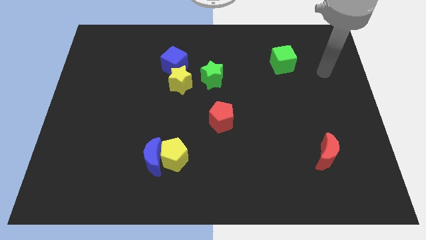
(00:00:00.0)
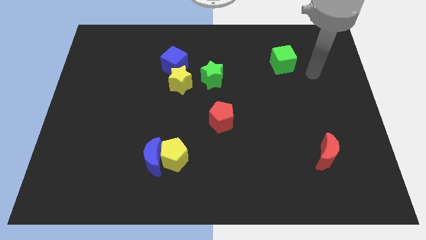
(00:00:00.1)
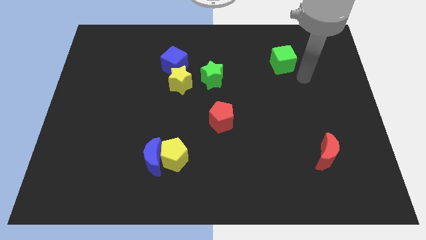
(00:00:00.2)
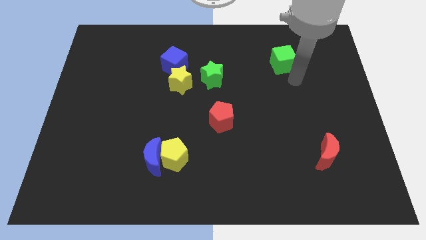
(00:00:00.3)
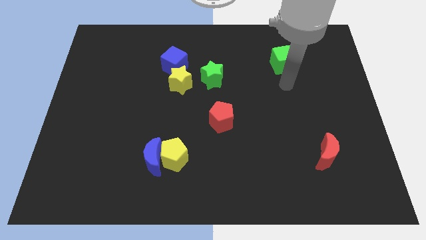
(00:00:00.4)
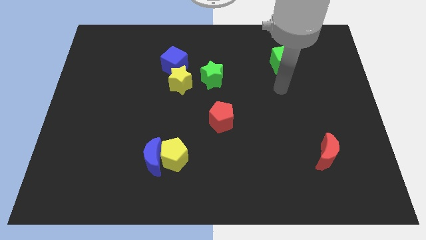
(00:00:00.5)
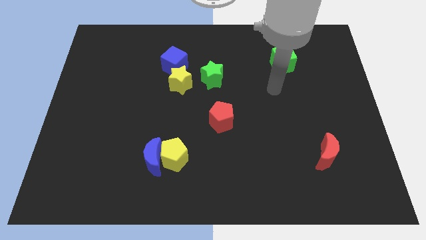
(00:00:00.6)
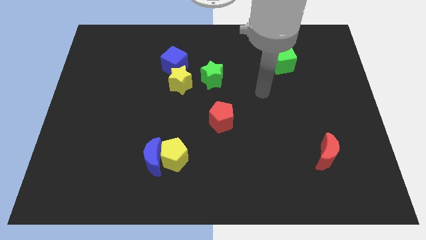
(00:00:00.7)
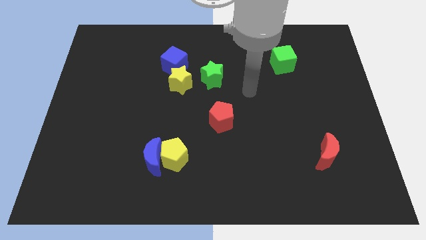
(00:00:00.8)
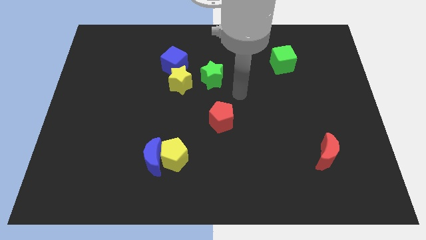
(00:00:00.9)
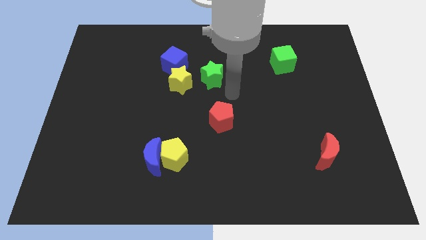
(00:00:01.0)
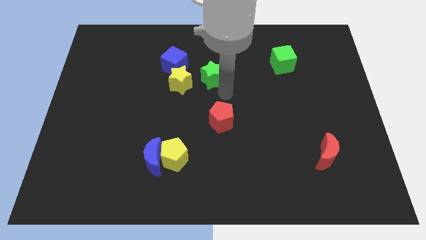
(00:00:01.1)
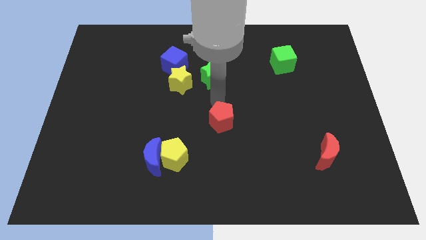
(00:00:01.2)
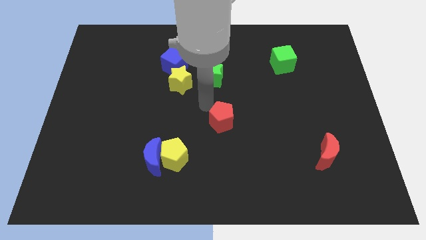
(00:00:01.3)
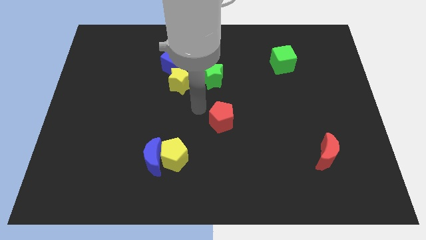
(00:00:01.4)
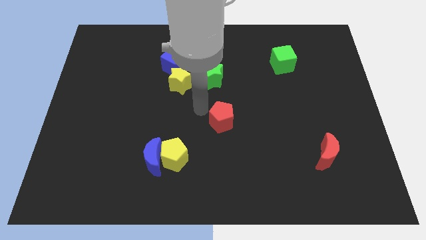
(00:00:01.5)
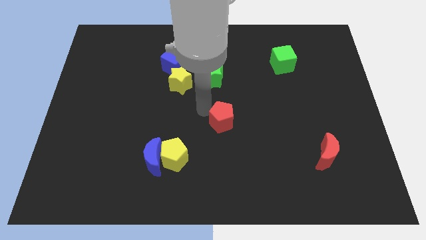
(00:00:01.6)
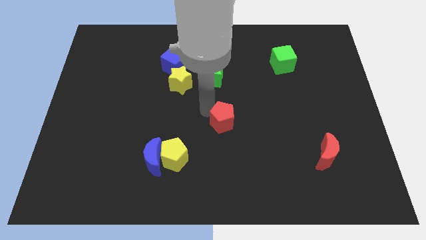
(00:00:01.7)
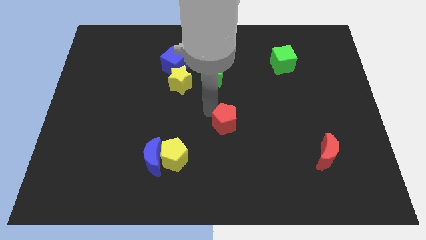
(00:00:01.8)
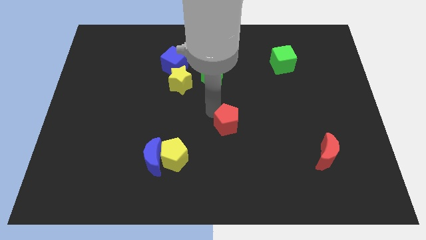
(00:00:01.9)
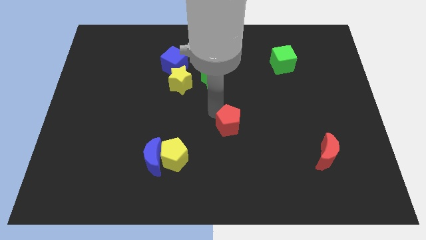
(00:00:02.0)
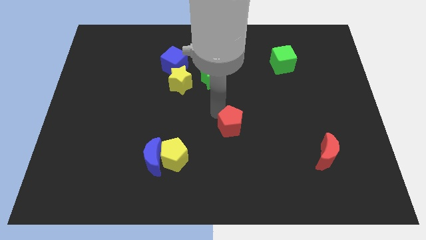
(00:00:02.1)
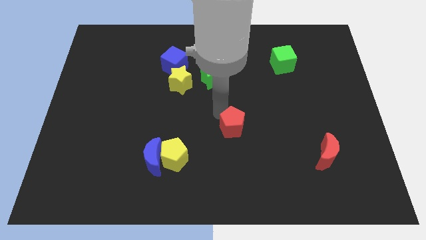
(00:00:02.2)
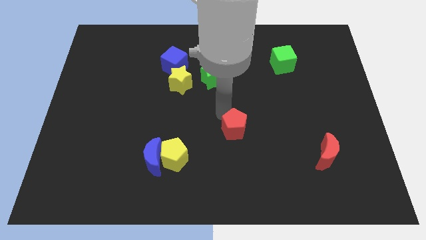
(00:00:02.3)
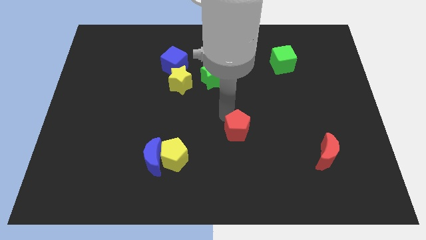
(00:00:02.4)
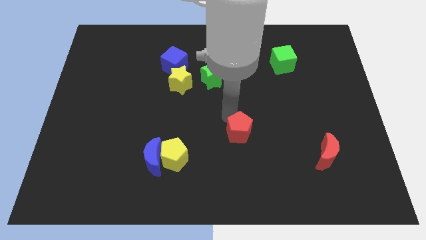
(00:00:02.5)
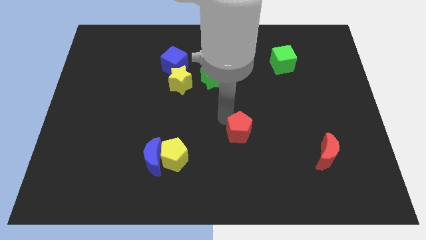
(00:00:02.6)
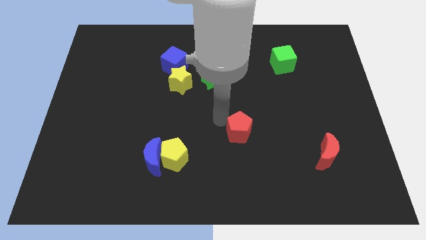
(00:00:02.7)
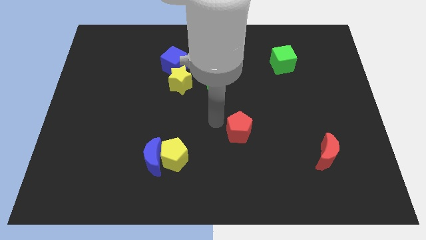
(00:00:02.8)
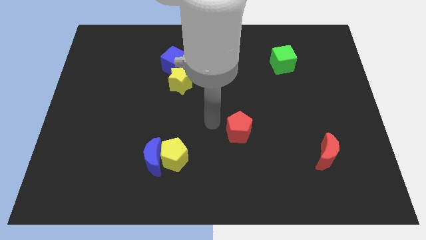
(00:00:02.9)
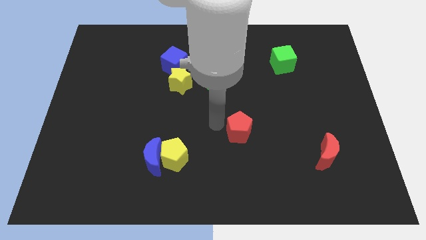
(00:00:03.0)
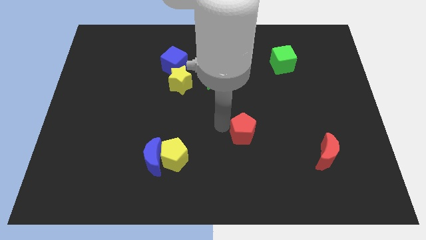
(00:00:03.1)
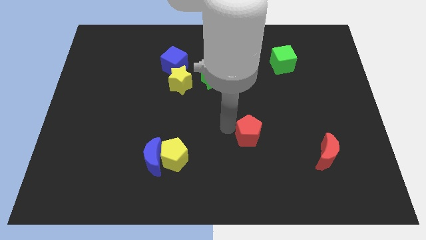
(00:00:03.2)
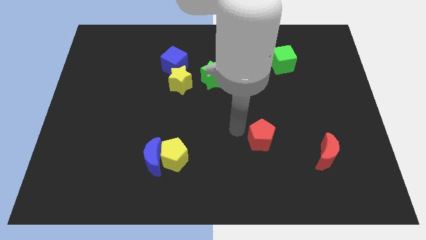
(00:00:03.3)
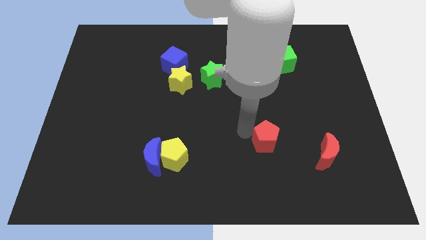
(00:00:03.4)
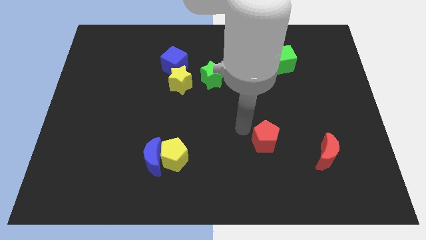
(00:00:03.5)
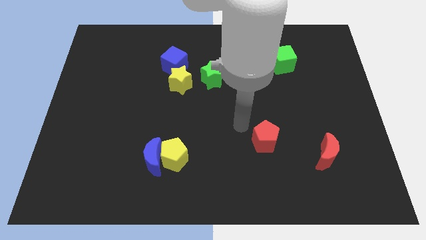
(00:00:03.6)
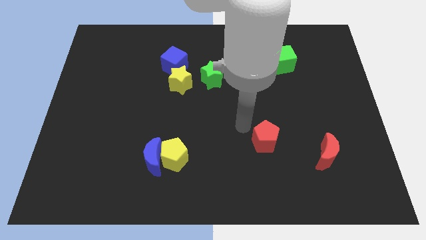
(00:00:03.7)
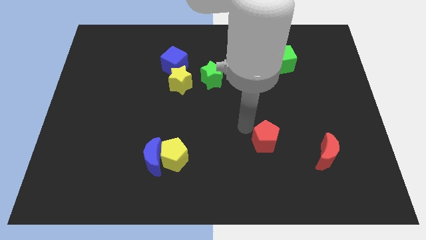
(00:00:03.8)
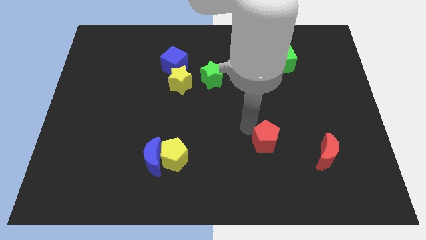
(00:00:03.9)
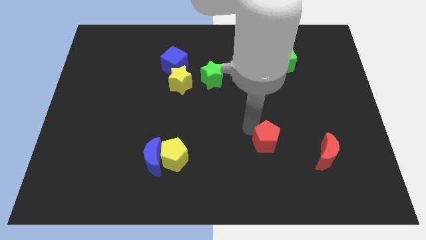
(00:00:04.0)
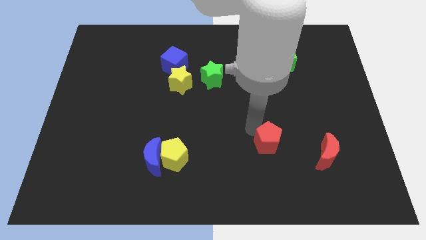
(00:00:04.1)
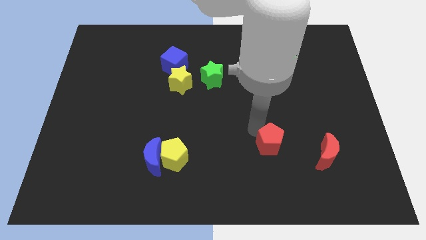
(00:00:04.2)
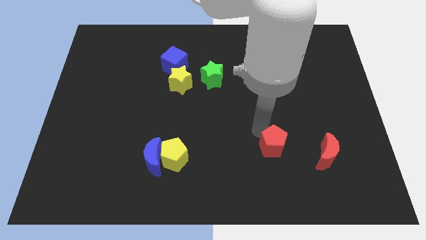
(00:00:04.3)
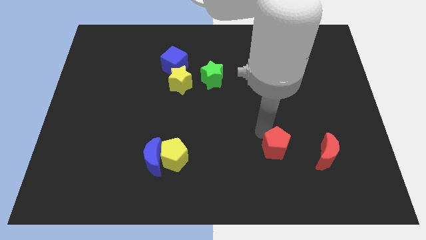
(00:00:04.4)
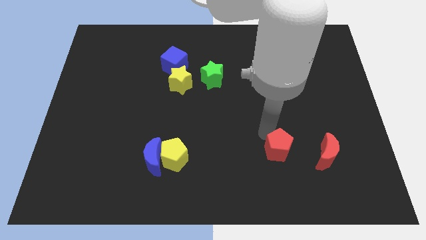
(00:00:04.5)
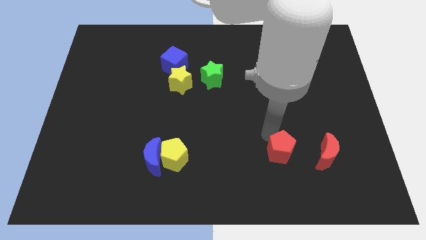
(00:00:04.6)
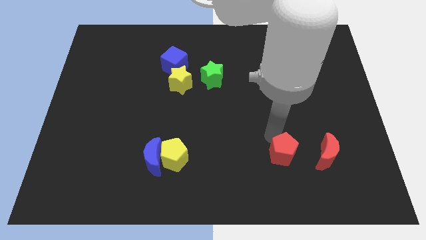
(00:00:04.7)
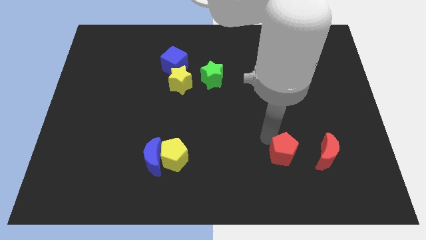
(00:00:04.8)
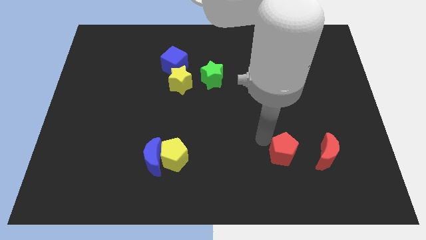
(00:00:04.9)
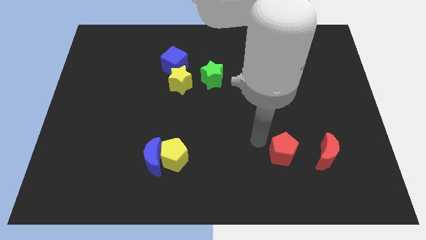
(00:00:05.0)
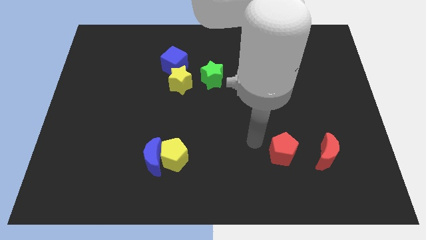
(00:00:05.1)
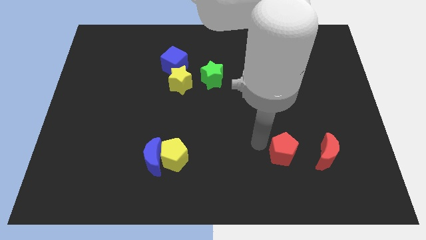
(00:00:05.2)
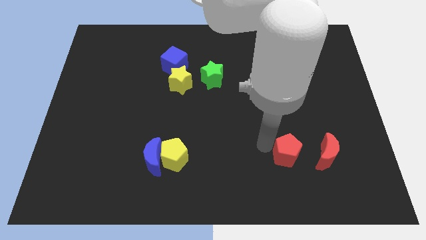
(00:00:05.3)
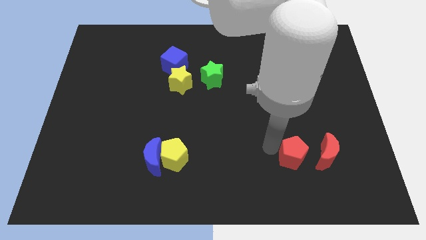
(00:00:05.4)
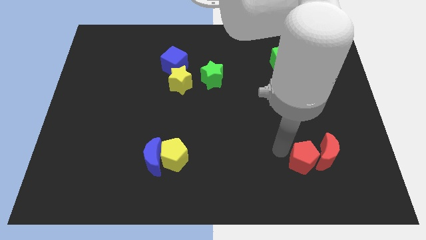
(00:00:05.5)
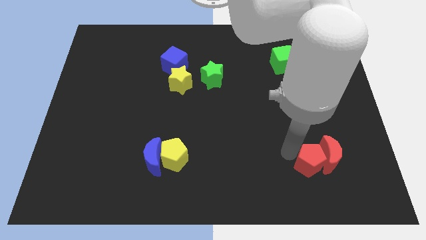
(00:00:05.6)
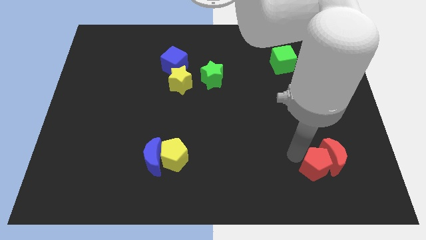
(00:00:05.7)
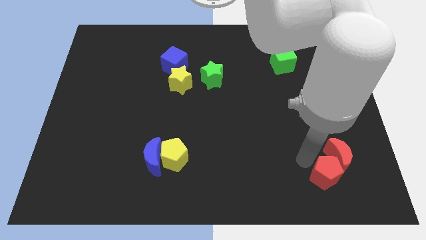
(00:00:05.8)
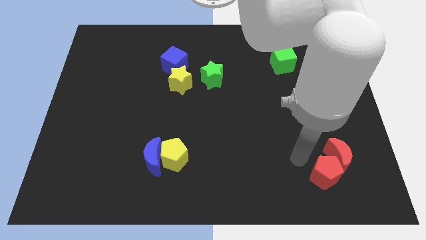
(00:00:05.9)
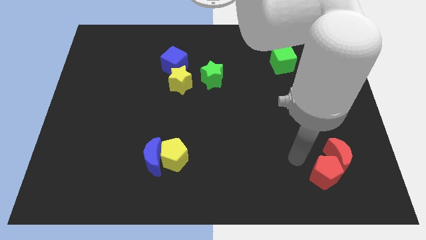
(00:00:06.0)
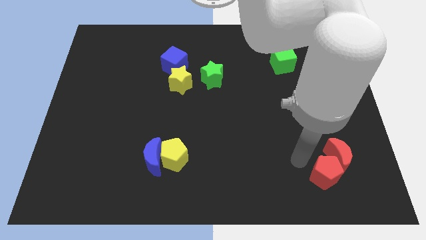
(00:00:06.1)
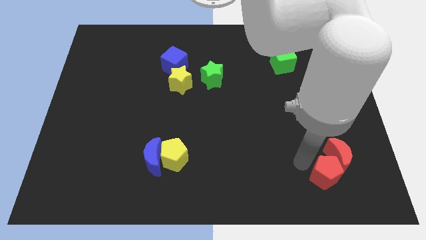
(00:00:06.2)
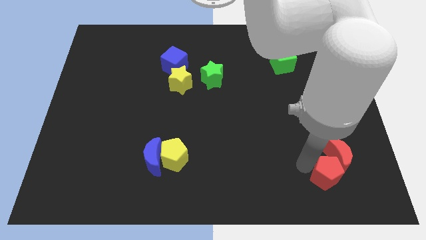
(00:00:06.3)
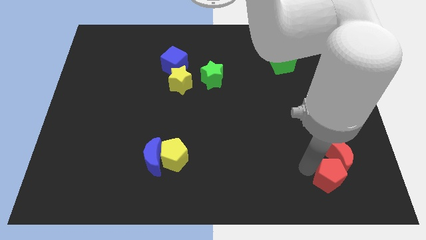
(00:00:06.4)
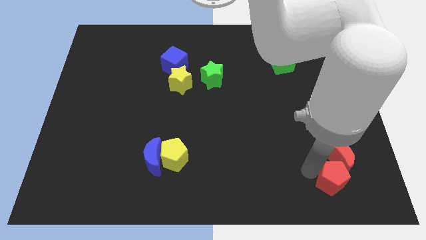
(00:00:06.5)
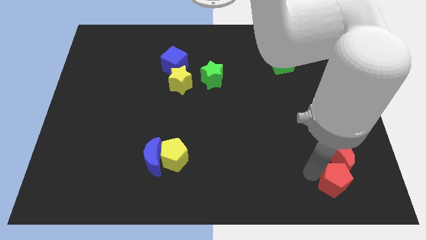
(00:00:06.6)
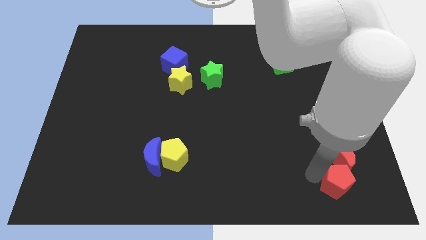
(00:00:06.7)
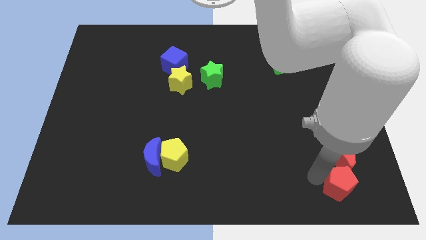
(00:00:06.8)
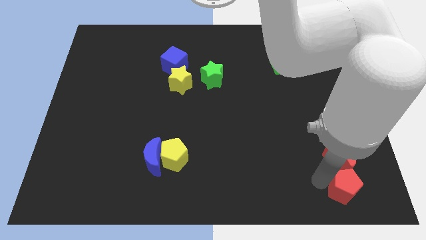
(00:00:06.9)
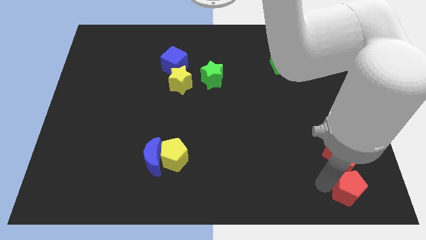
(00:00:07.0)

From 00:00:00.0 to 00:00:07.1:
slide the red pentagon to the bottom right
